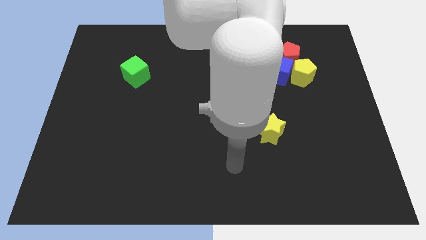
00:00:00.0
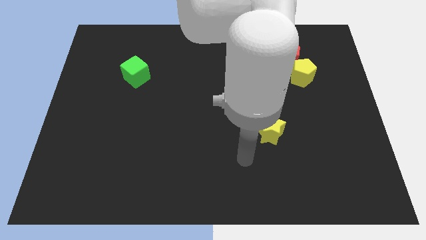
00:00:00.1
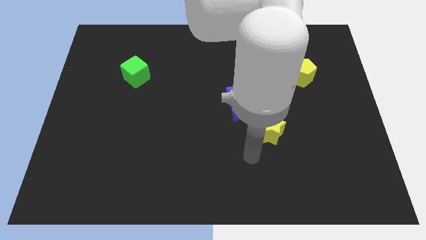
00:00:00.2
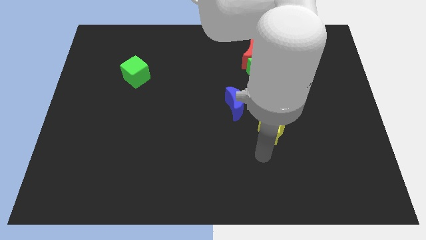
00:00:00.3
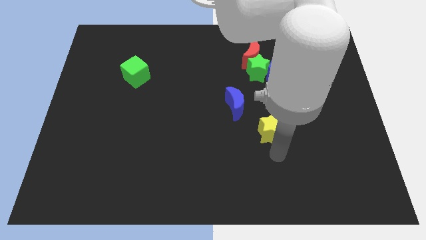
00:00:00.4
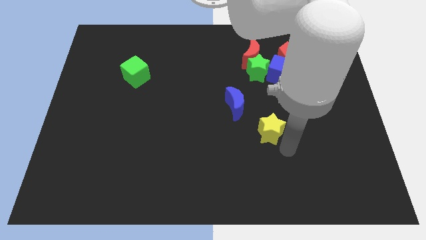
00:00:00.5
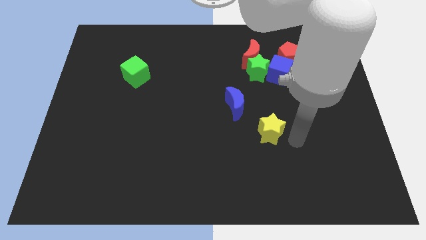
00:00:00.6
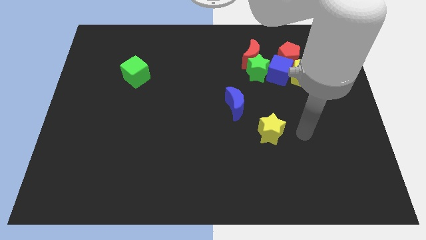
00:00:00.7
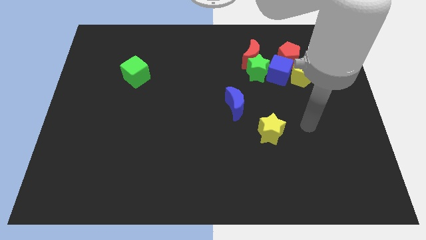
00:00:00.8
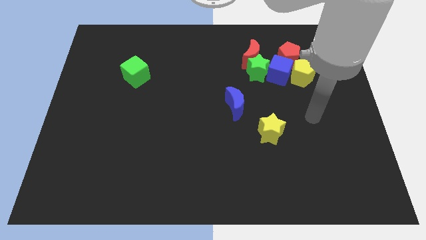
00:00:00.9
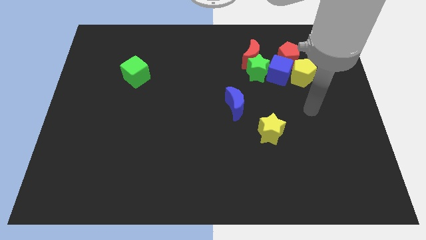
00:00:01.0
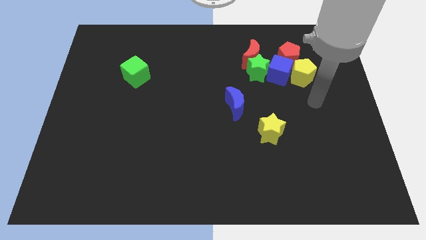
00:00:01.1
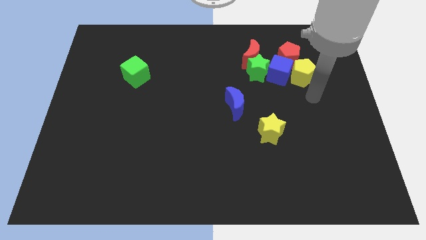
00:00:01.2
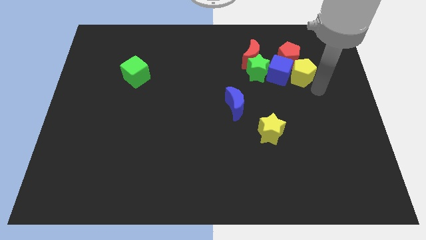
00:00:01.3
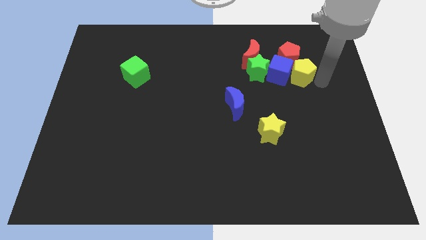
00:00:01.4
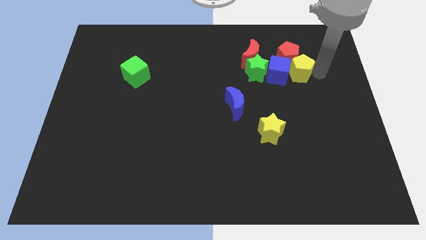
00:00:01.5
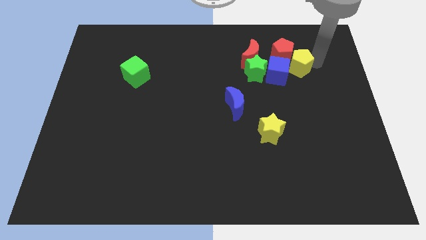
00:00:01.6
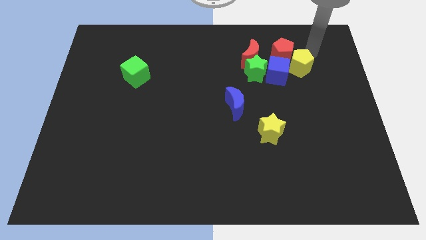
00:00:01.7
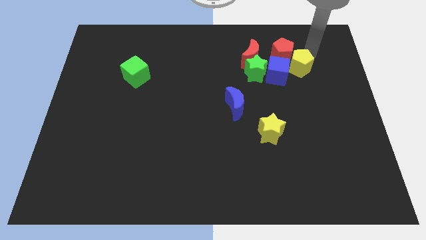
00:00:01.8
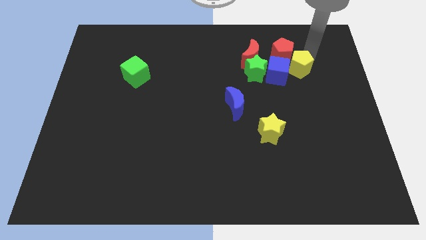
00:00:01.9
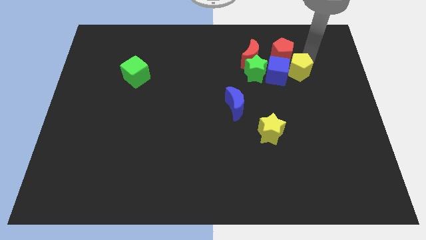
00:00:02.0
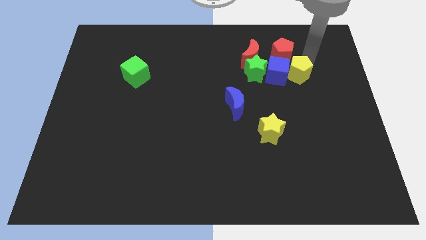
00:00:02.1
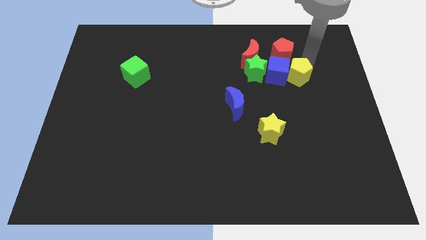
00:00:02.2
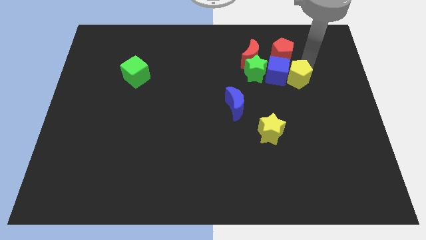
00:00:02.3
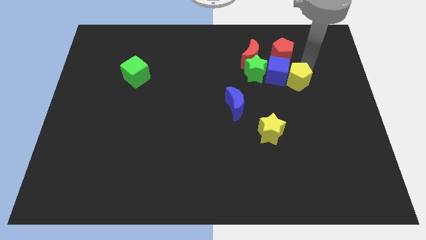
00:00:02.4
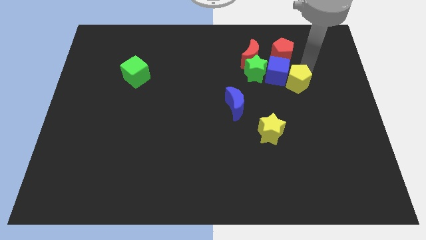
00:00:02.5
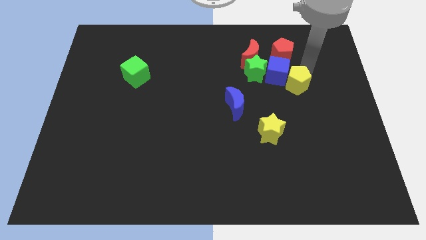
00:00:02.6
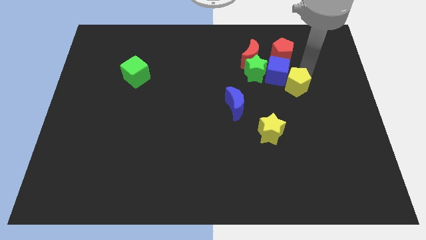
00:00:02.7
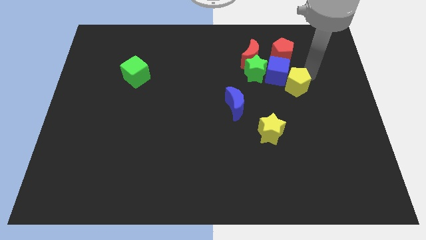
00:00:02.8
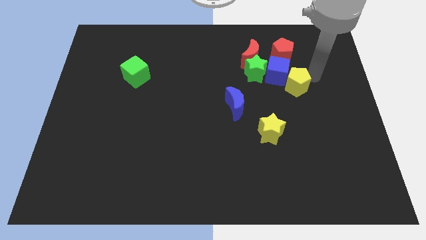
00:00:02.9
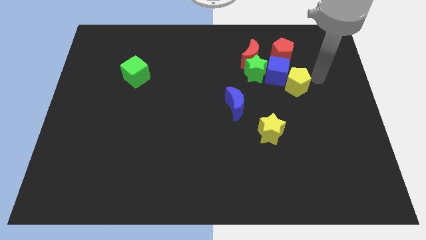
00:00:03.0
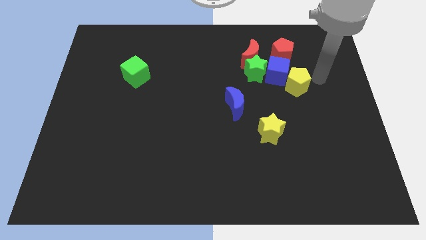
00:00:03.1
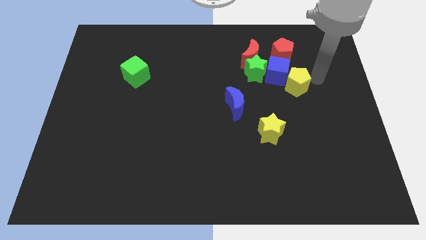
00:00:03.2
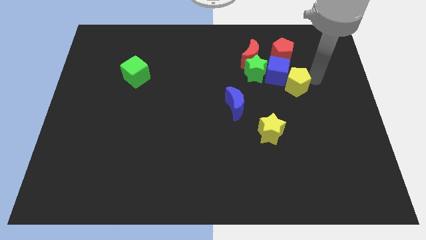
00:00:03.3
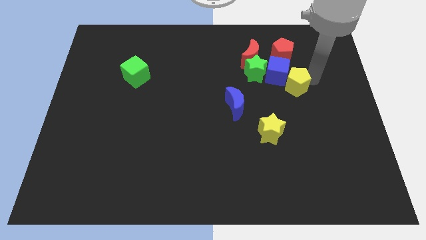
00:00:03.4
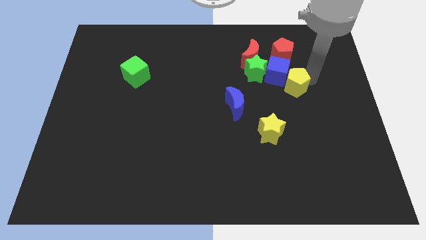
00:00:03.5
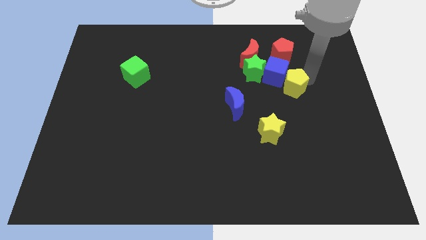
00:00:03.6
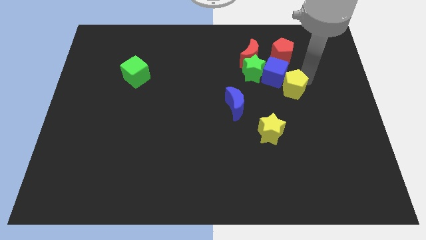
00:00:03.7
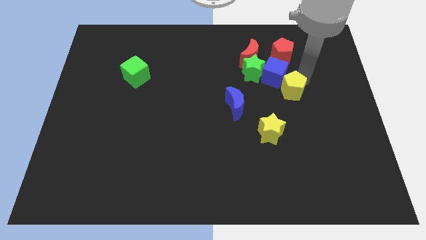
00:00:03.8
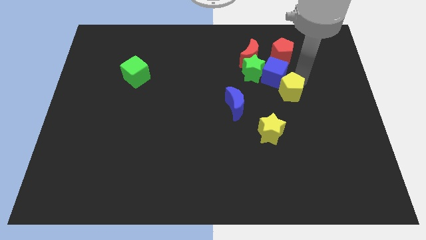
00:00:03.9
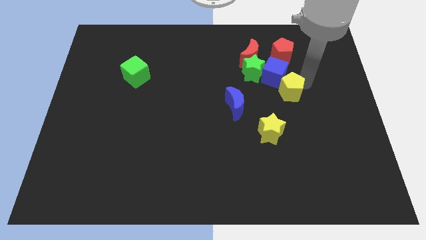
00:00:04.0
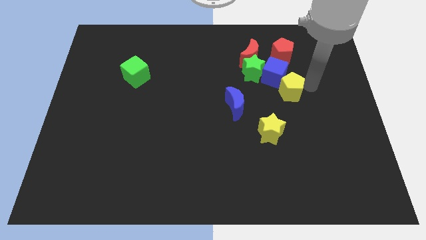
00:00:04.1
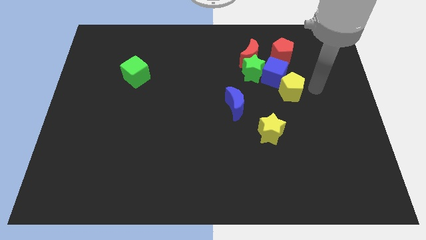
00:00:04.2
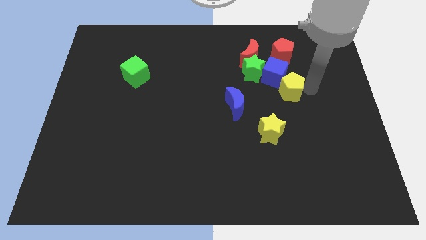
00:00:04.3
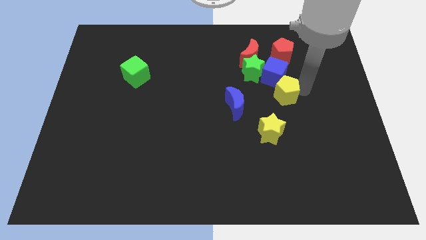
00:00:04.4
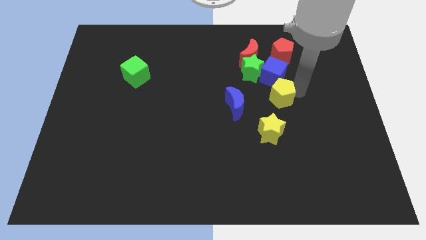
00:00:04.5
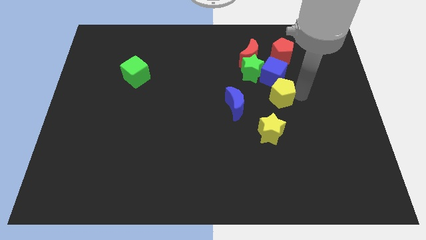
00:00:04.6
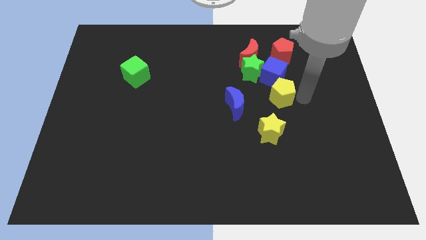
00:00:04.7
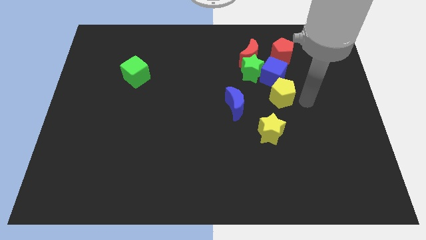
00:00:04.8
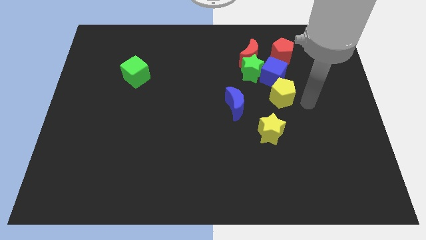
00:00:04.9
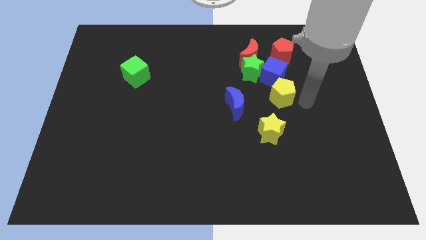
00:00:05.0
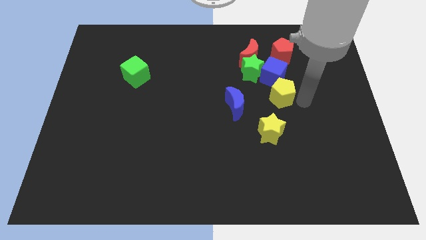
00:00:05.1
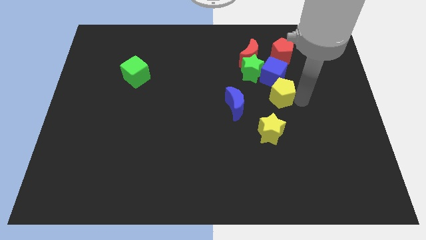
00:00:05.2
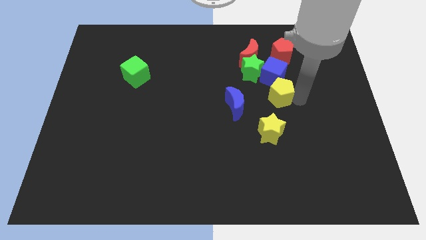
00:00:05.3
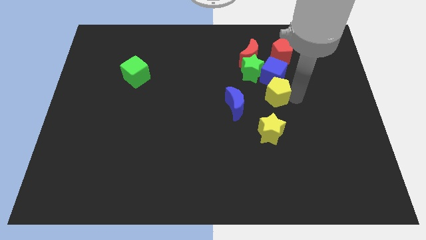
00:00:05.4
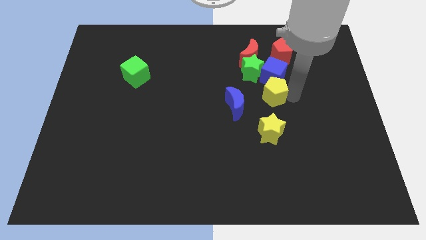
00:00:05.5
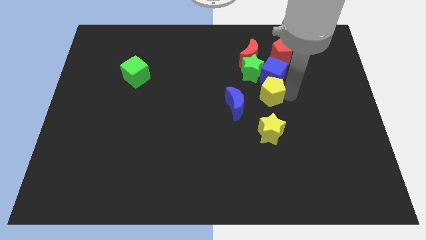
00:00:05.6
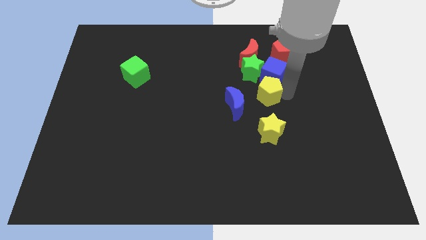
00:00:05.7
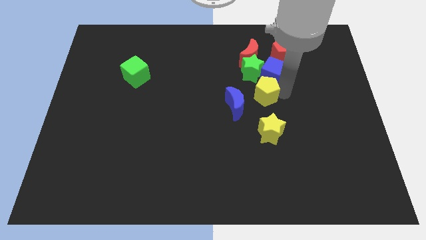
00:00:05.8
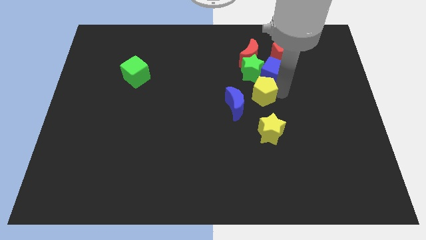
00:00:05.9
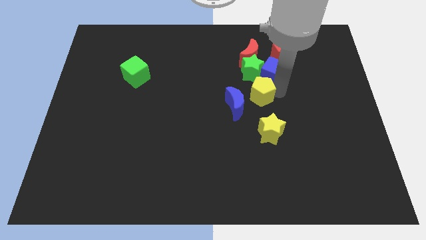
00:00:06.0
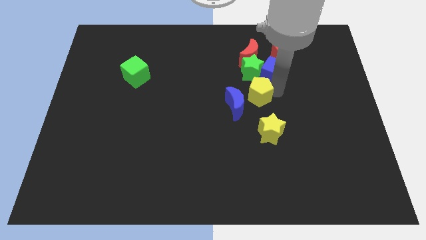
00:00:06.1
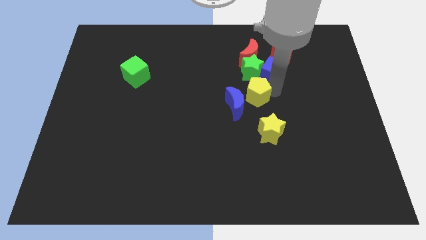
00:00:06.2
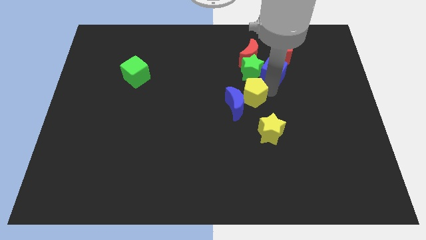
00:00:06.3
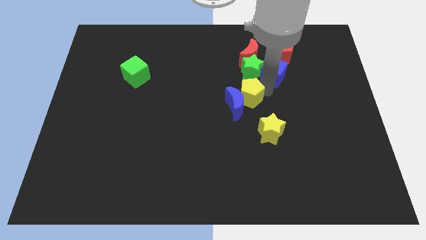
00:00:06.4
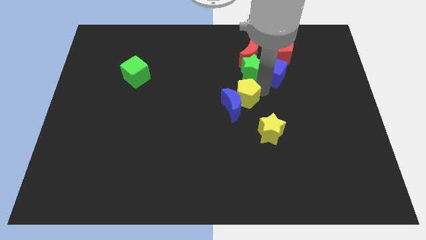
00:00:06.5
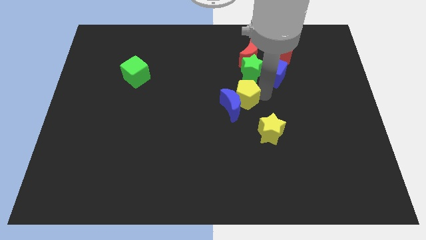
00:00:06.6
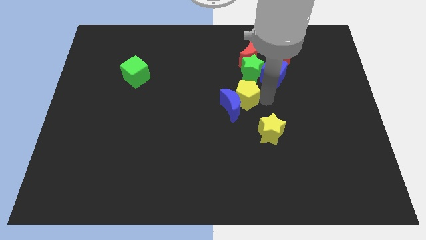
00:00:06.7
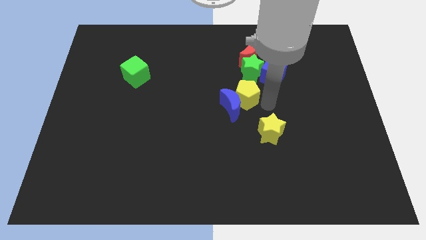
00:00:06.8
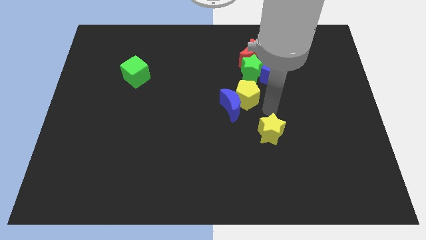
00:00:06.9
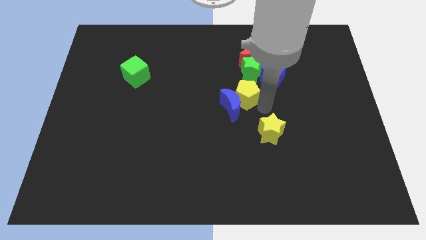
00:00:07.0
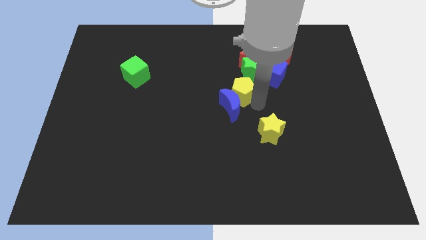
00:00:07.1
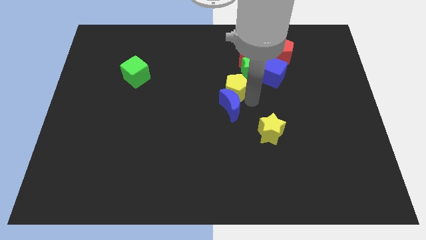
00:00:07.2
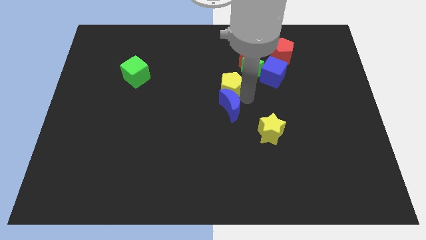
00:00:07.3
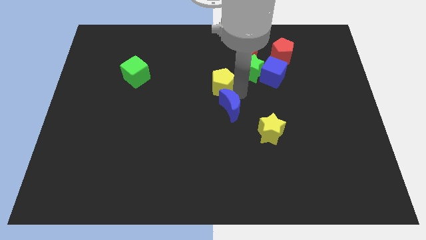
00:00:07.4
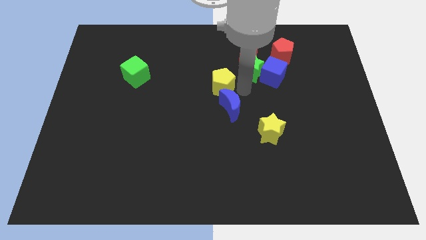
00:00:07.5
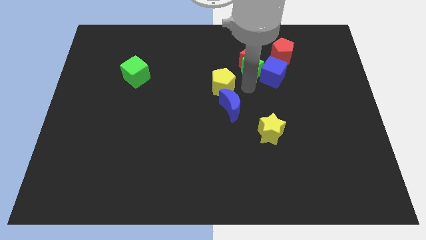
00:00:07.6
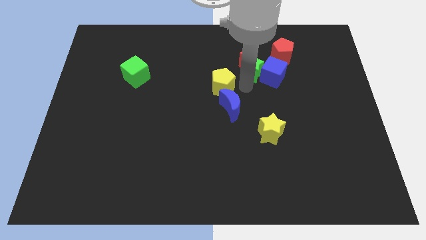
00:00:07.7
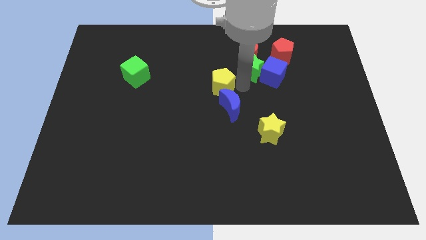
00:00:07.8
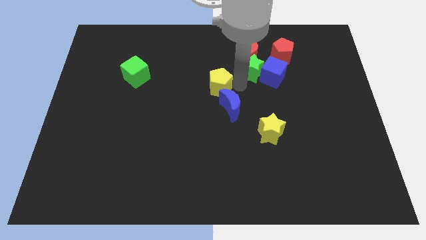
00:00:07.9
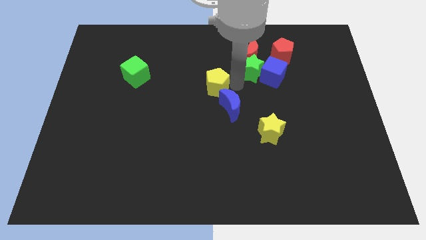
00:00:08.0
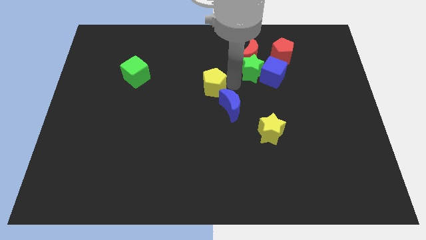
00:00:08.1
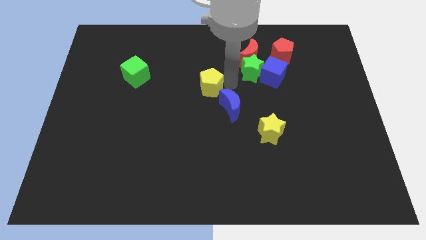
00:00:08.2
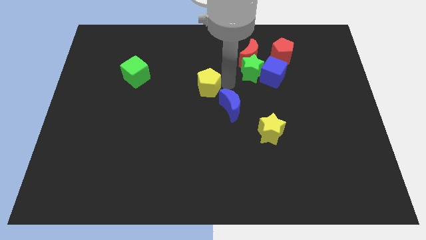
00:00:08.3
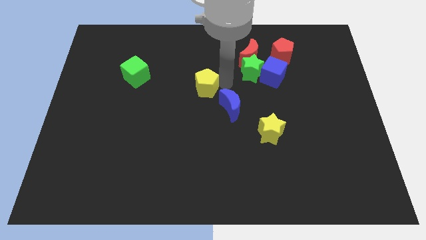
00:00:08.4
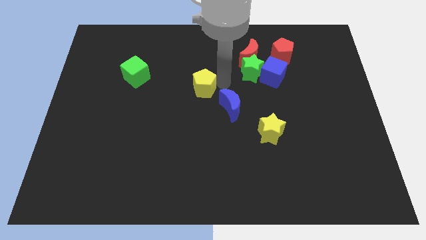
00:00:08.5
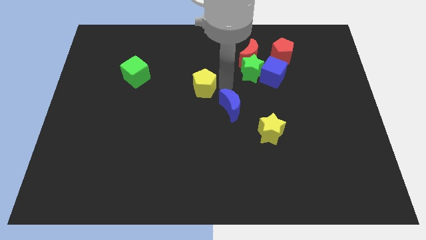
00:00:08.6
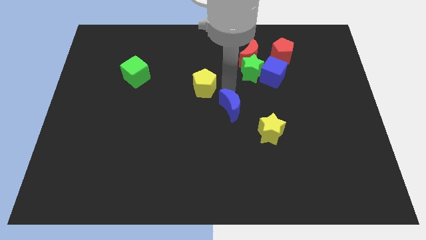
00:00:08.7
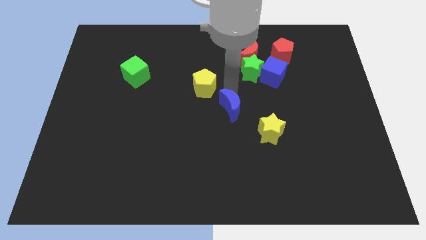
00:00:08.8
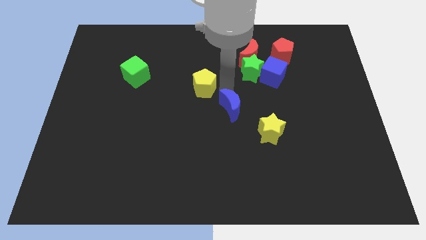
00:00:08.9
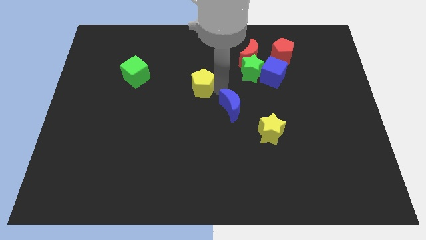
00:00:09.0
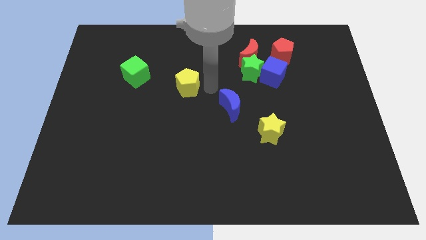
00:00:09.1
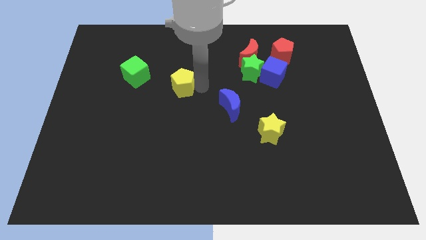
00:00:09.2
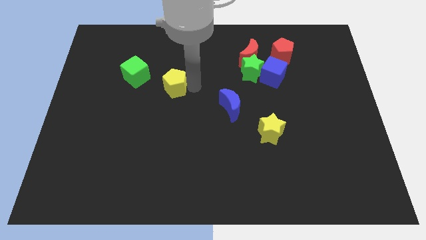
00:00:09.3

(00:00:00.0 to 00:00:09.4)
move the yellow pentagon to the bottom right side of the green cube
